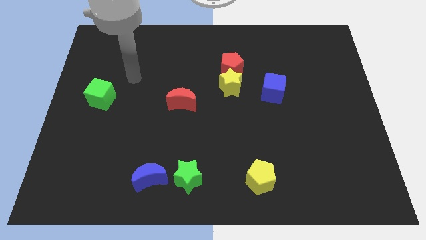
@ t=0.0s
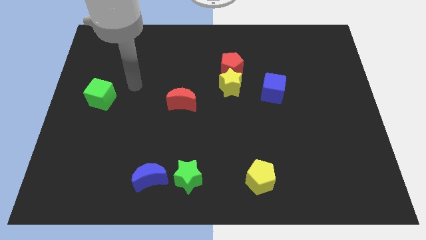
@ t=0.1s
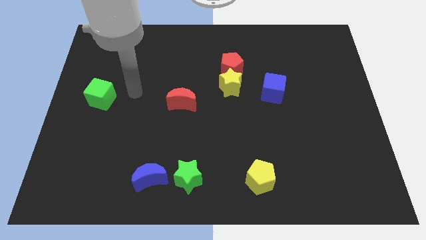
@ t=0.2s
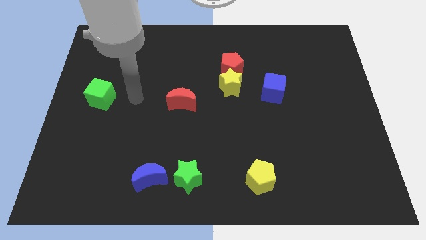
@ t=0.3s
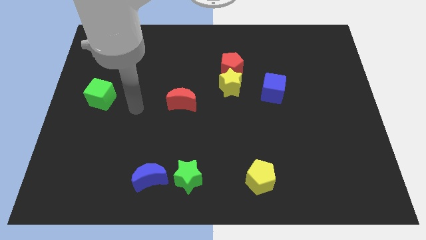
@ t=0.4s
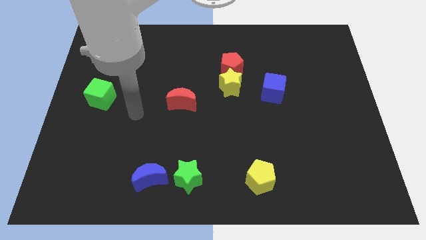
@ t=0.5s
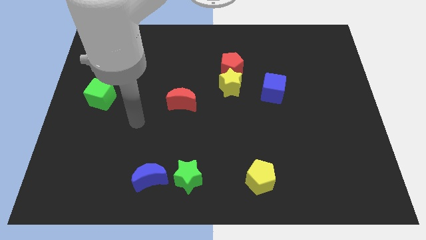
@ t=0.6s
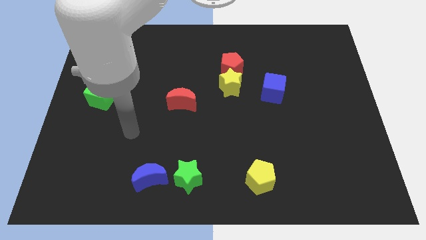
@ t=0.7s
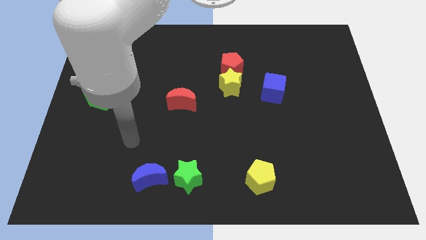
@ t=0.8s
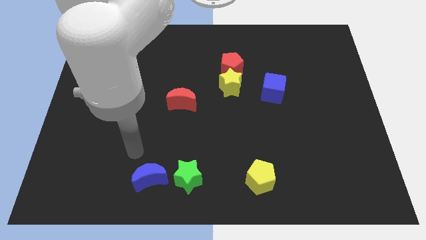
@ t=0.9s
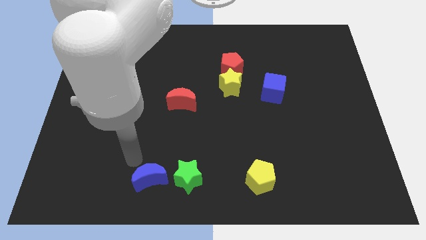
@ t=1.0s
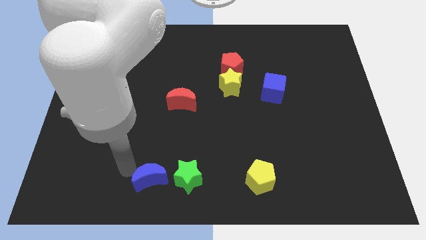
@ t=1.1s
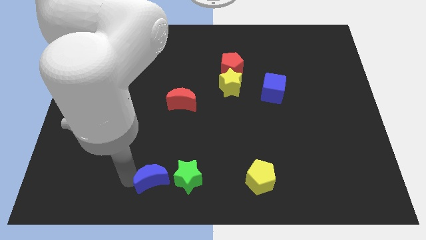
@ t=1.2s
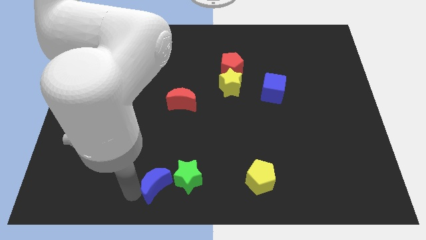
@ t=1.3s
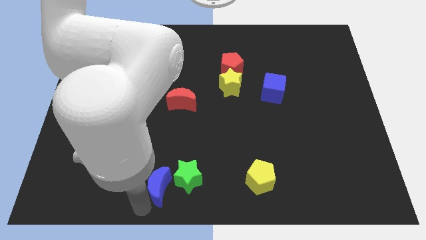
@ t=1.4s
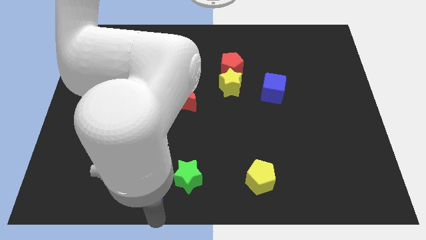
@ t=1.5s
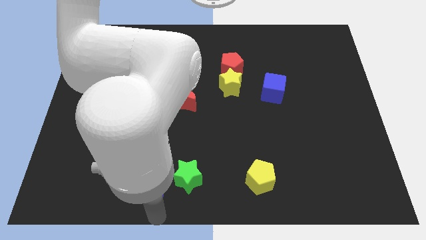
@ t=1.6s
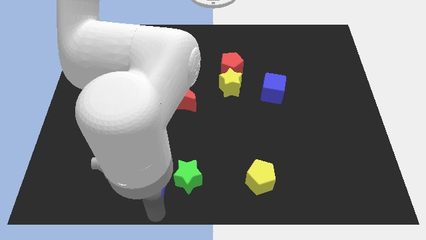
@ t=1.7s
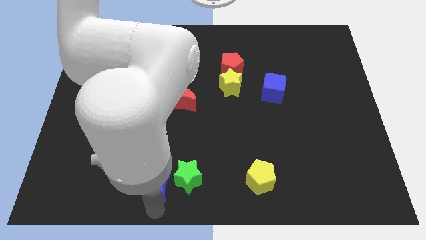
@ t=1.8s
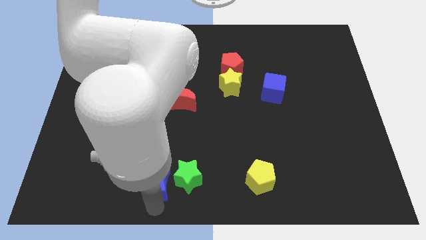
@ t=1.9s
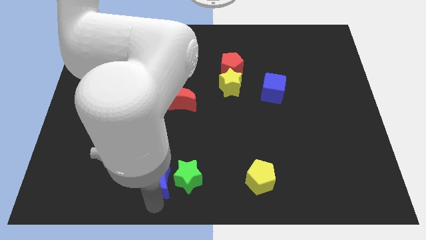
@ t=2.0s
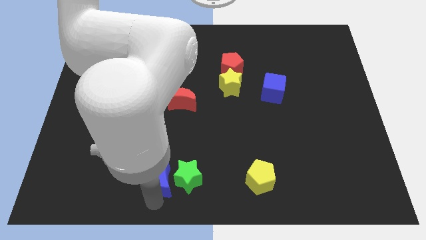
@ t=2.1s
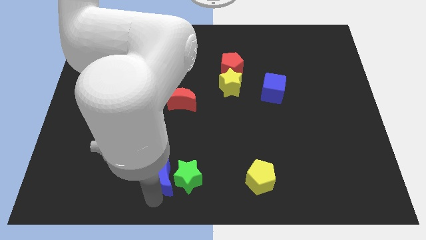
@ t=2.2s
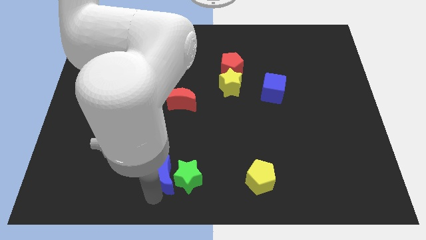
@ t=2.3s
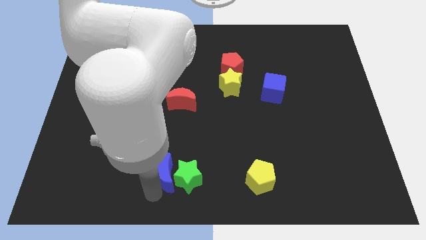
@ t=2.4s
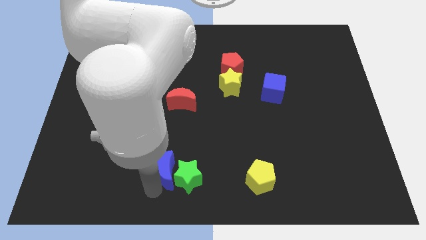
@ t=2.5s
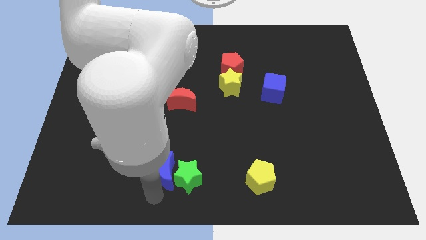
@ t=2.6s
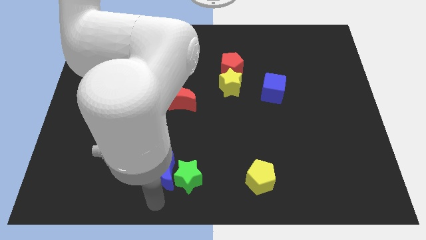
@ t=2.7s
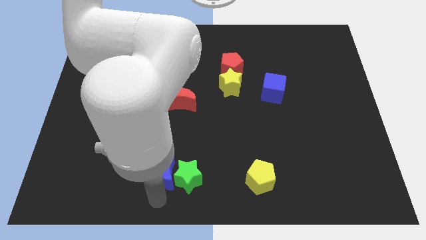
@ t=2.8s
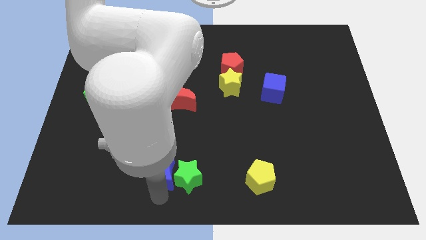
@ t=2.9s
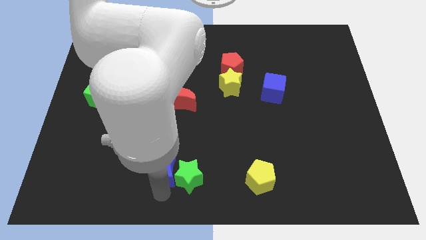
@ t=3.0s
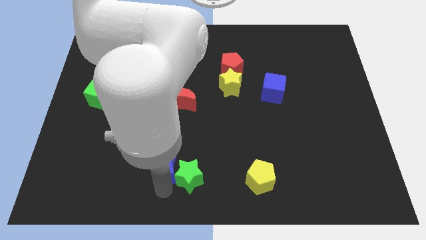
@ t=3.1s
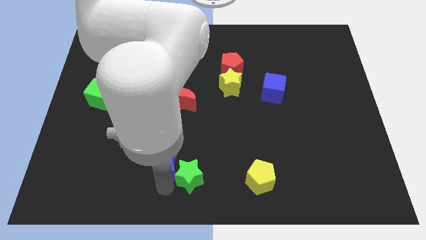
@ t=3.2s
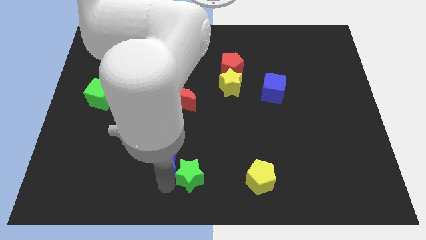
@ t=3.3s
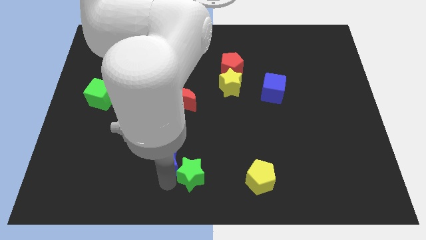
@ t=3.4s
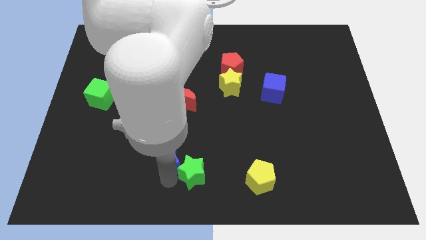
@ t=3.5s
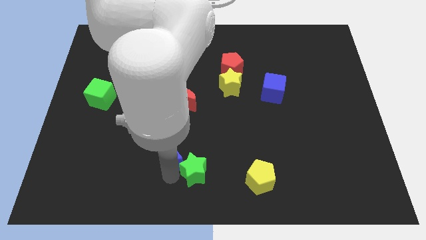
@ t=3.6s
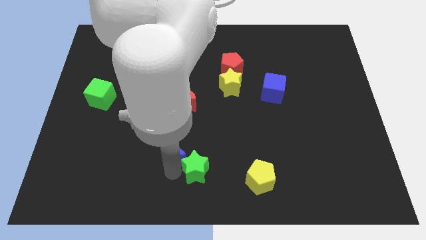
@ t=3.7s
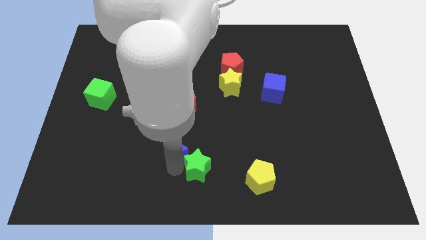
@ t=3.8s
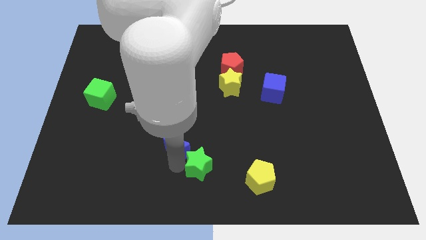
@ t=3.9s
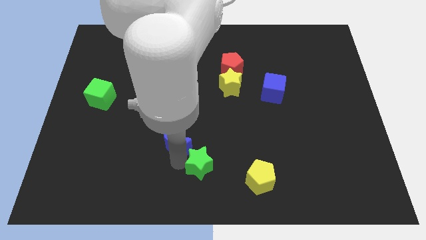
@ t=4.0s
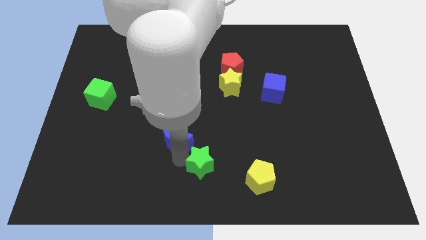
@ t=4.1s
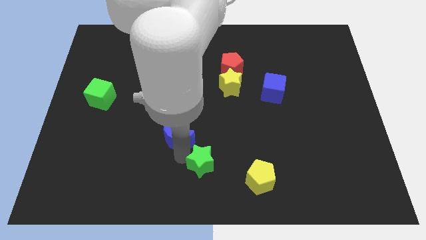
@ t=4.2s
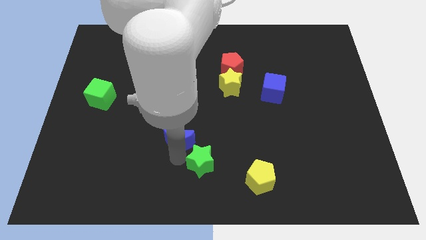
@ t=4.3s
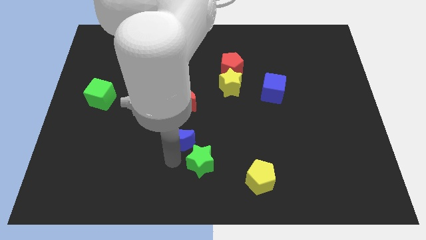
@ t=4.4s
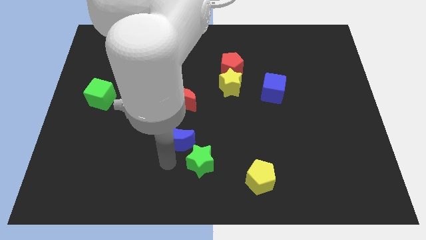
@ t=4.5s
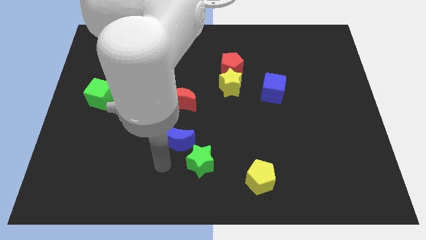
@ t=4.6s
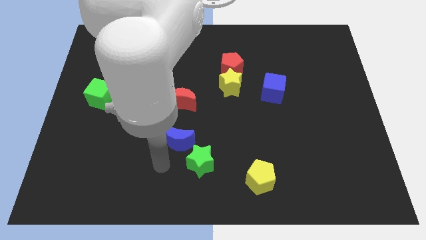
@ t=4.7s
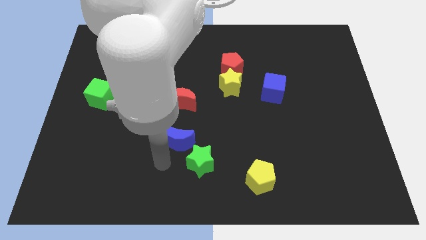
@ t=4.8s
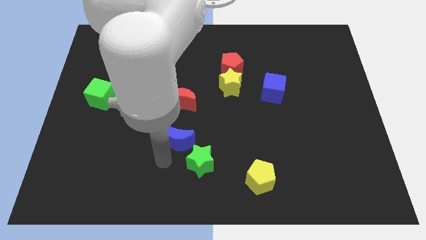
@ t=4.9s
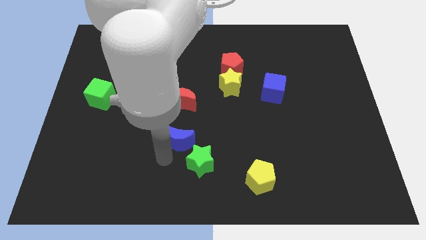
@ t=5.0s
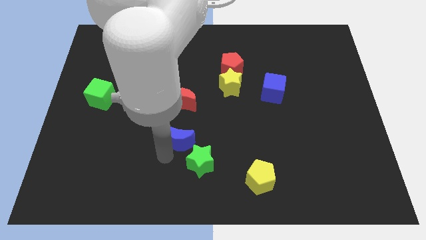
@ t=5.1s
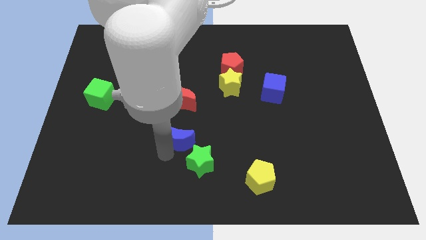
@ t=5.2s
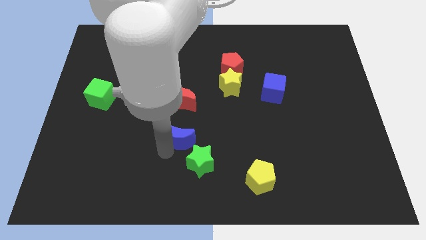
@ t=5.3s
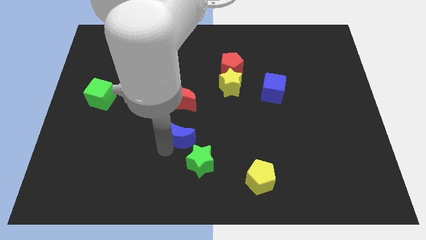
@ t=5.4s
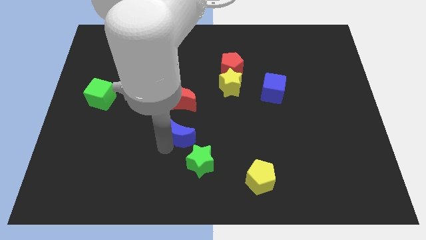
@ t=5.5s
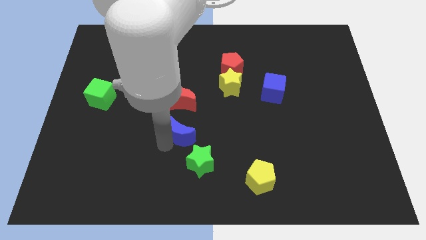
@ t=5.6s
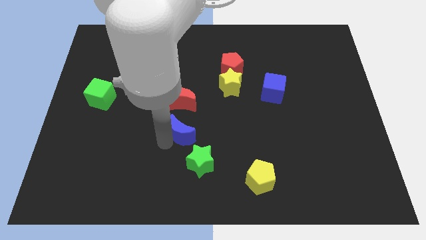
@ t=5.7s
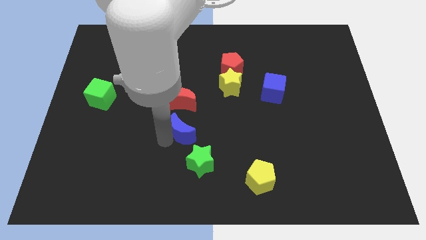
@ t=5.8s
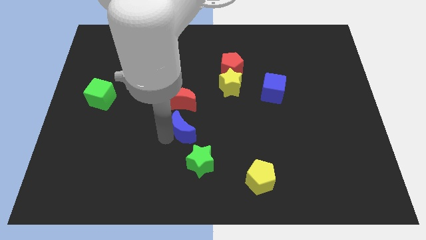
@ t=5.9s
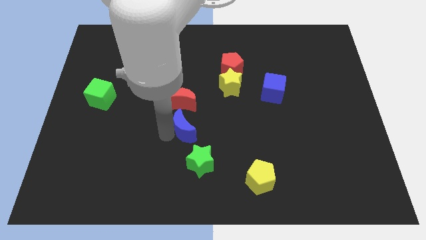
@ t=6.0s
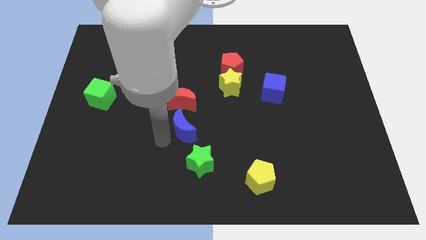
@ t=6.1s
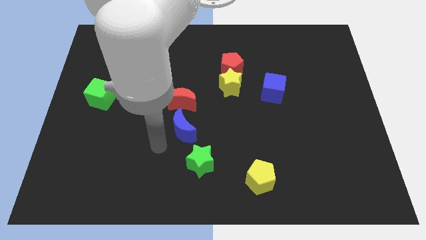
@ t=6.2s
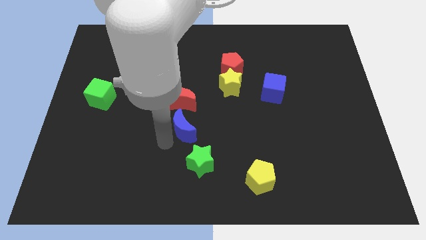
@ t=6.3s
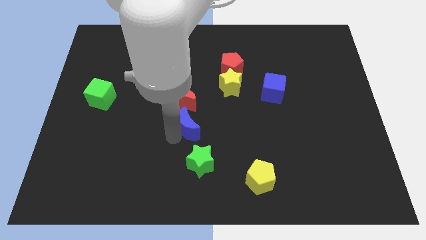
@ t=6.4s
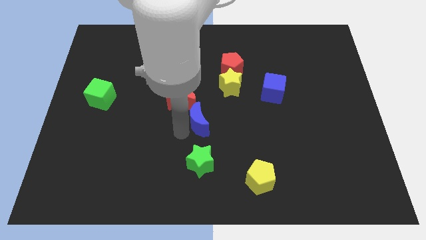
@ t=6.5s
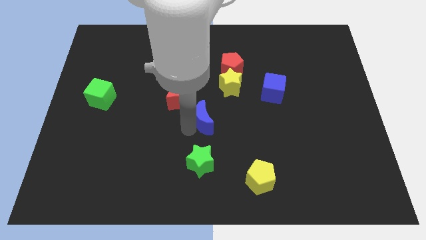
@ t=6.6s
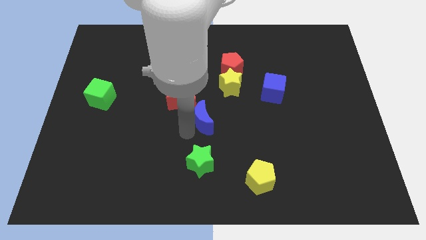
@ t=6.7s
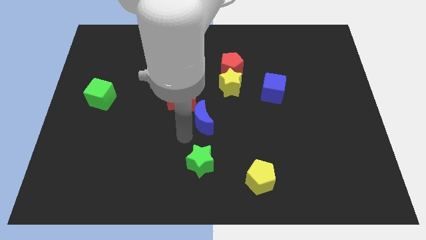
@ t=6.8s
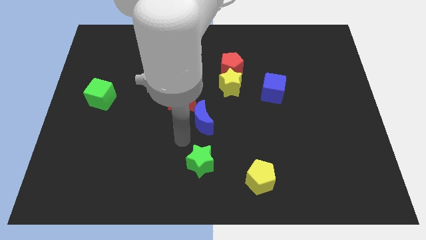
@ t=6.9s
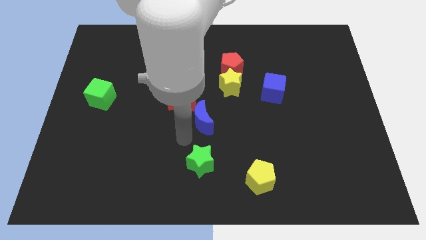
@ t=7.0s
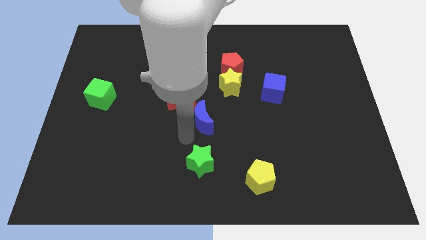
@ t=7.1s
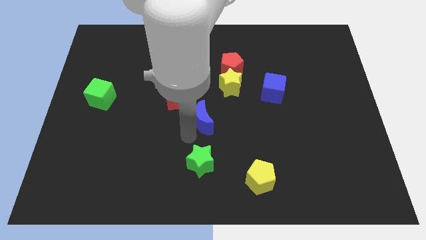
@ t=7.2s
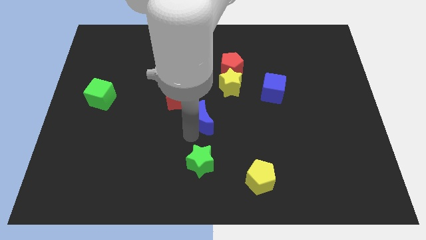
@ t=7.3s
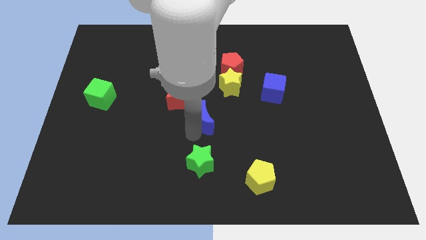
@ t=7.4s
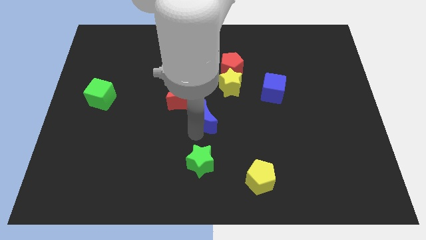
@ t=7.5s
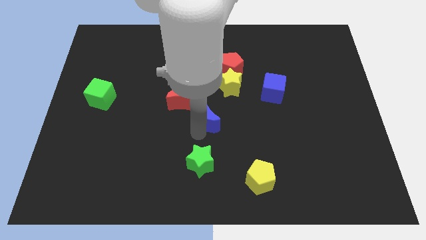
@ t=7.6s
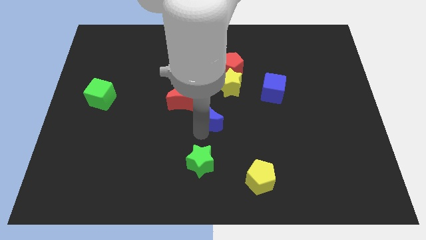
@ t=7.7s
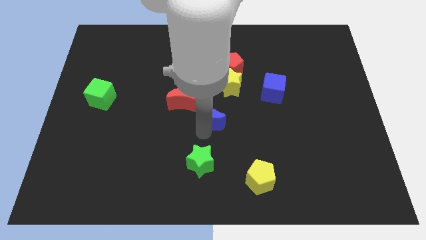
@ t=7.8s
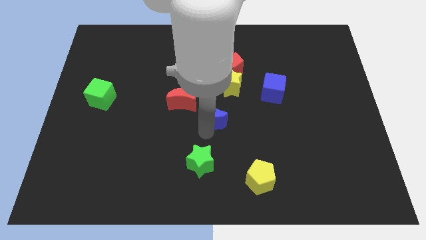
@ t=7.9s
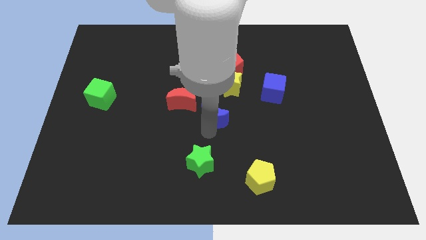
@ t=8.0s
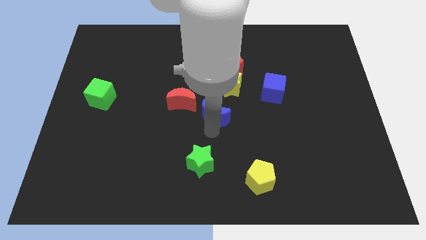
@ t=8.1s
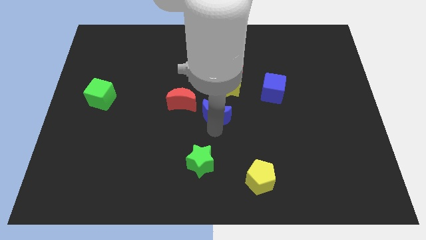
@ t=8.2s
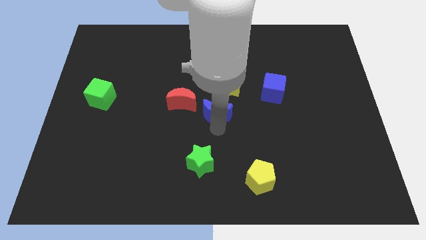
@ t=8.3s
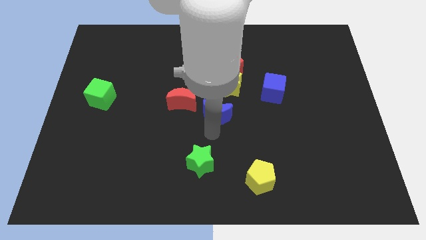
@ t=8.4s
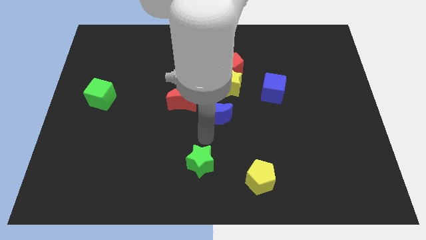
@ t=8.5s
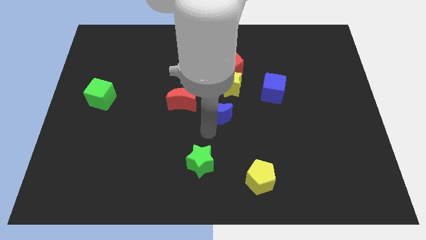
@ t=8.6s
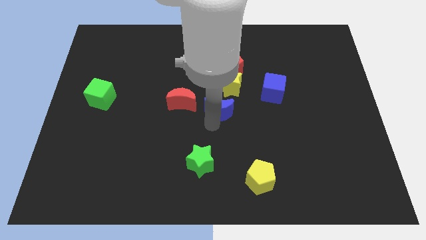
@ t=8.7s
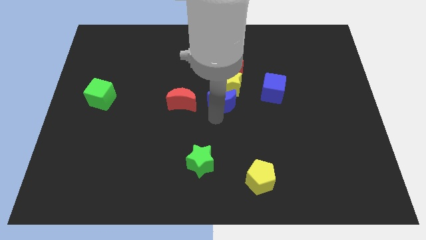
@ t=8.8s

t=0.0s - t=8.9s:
put the blue moon next to the yellow star
